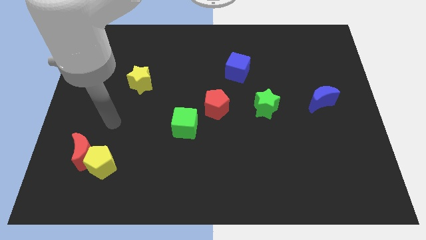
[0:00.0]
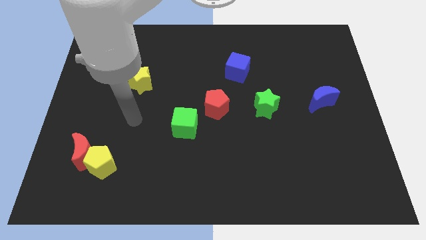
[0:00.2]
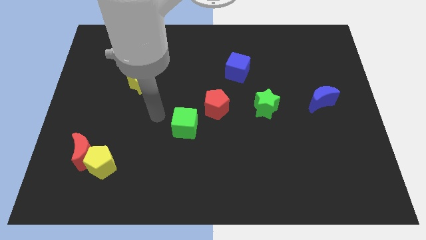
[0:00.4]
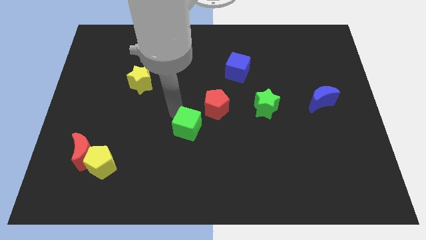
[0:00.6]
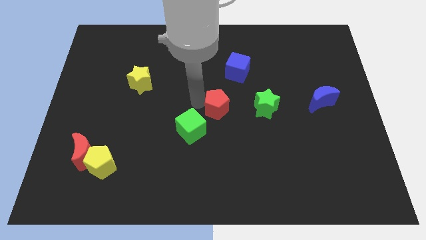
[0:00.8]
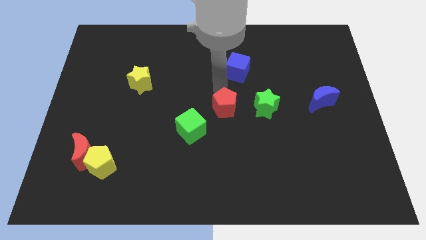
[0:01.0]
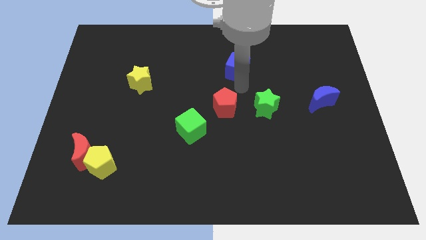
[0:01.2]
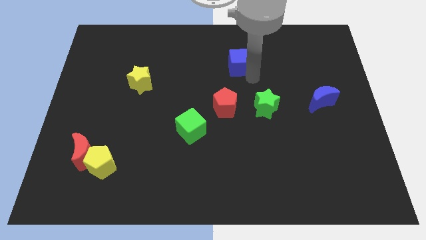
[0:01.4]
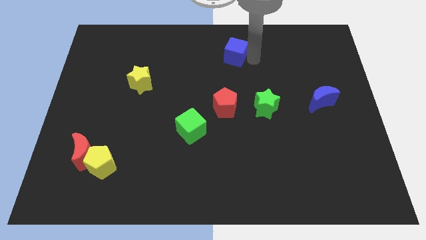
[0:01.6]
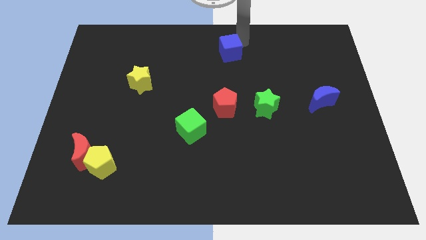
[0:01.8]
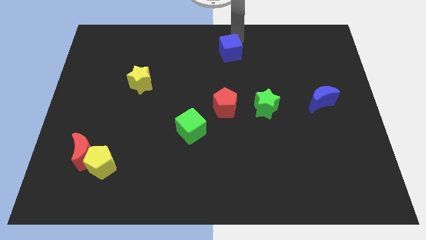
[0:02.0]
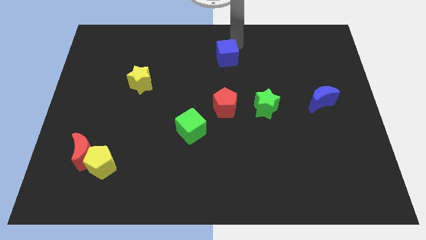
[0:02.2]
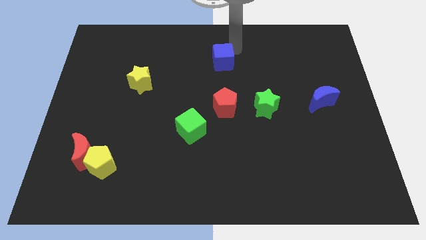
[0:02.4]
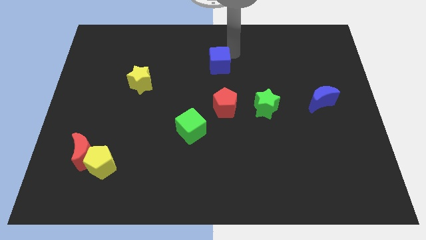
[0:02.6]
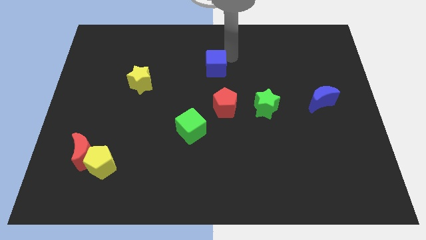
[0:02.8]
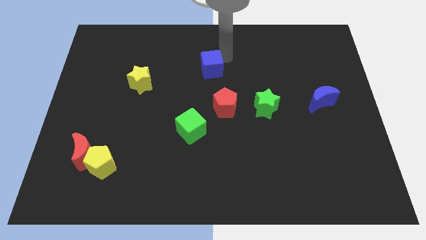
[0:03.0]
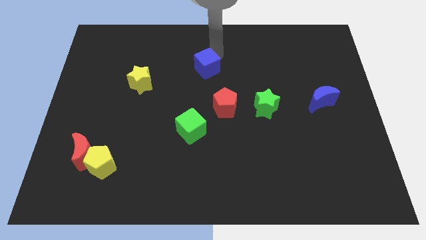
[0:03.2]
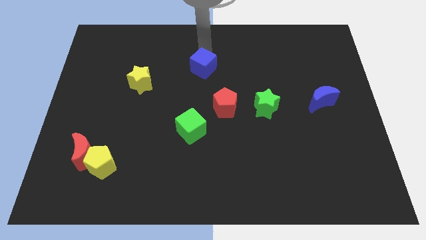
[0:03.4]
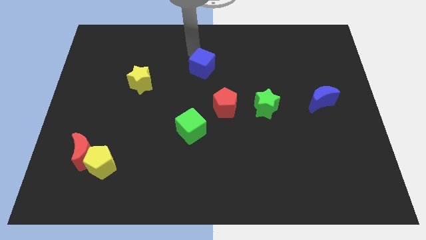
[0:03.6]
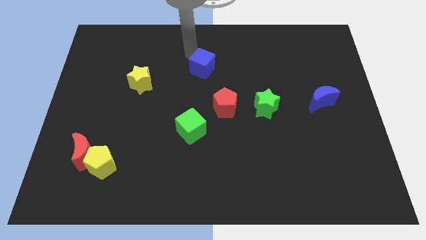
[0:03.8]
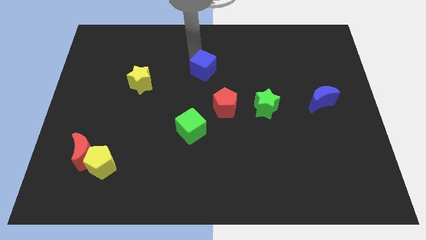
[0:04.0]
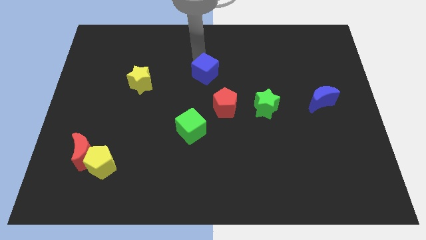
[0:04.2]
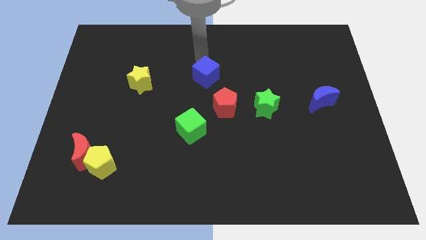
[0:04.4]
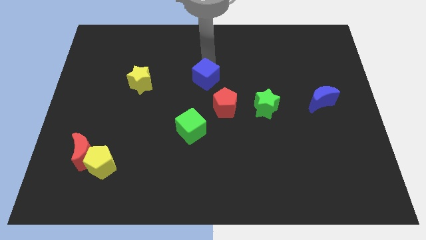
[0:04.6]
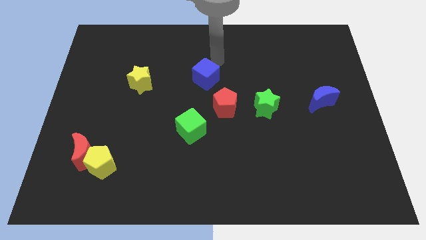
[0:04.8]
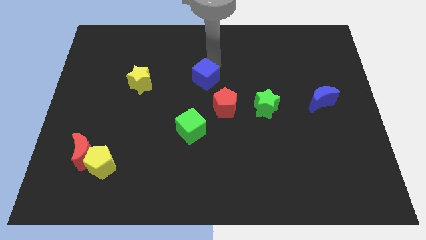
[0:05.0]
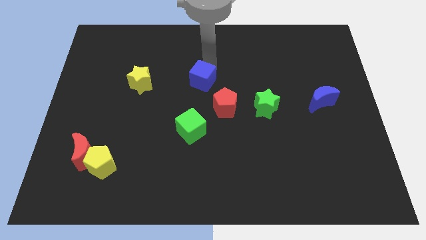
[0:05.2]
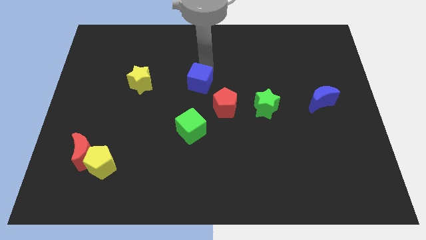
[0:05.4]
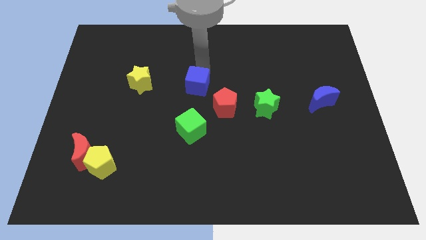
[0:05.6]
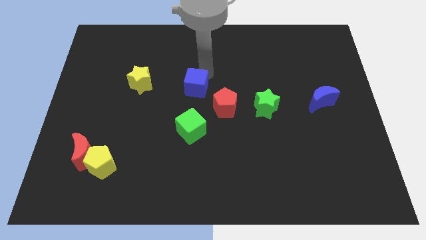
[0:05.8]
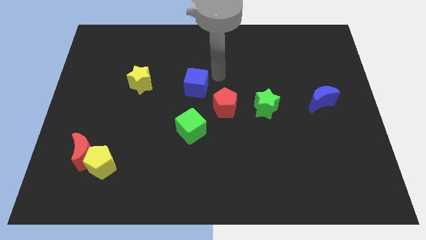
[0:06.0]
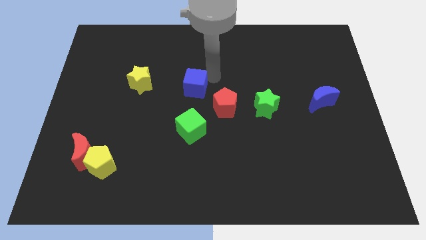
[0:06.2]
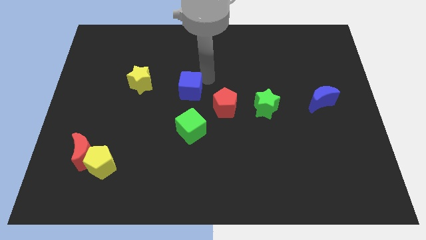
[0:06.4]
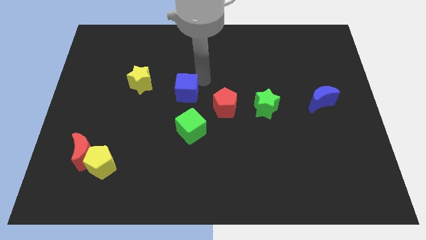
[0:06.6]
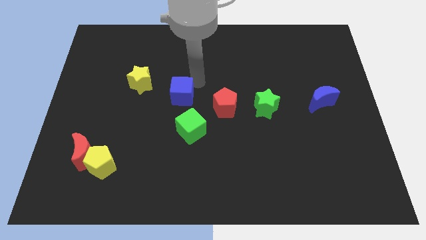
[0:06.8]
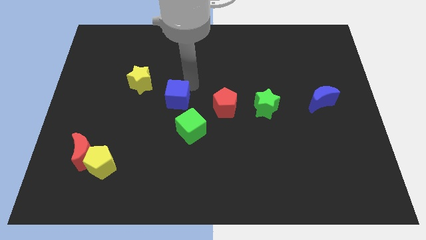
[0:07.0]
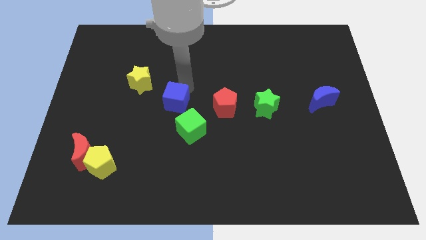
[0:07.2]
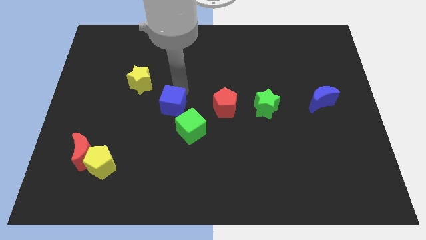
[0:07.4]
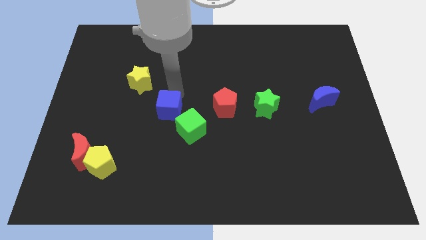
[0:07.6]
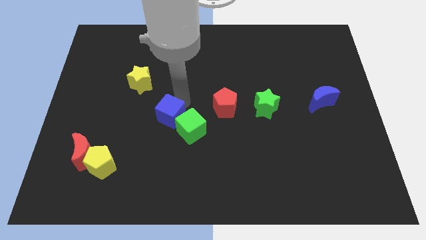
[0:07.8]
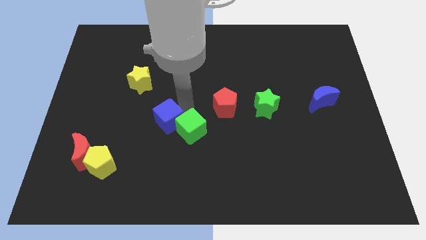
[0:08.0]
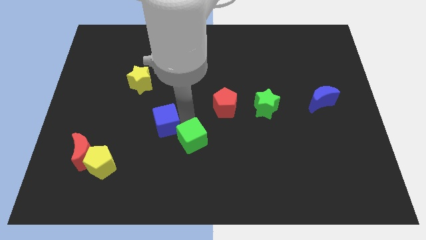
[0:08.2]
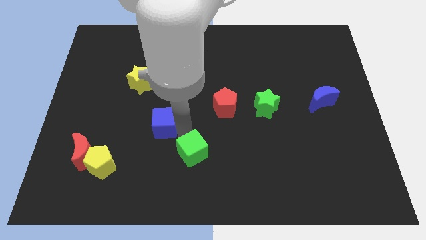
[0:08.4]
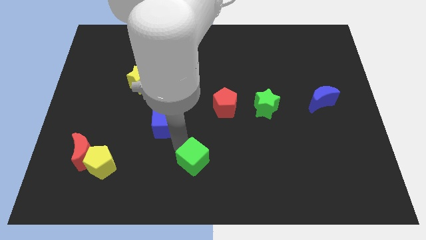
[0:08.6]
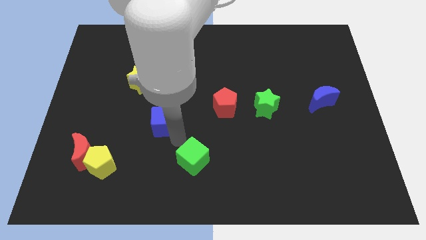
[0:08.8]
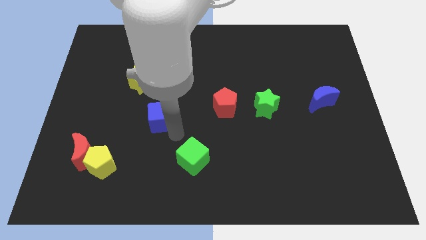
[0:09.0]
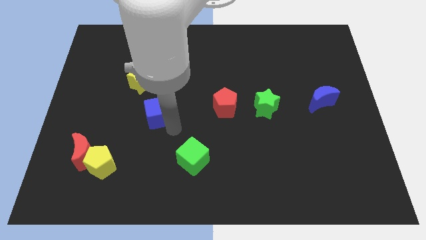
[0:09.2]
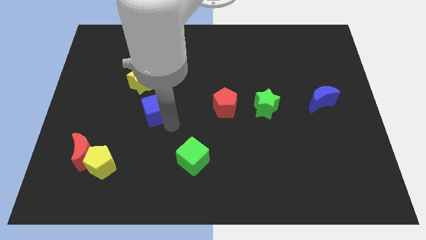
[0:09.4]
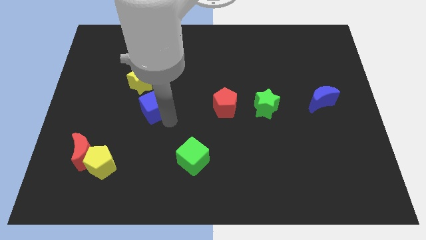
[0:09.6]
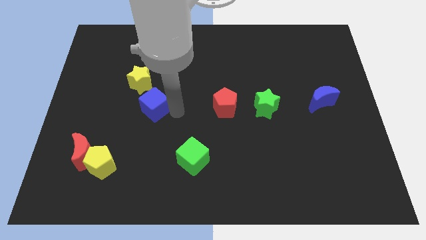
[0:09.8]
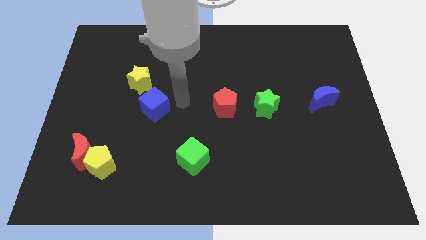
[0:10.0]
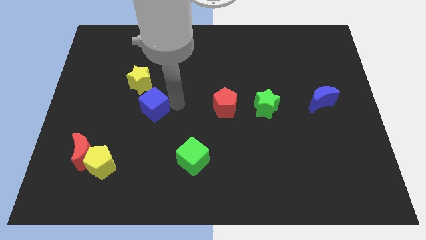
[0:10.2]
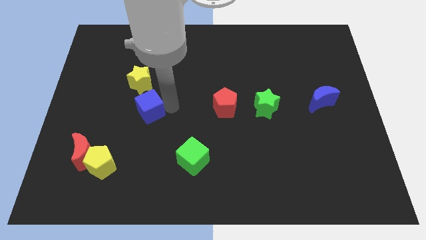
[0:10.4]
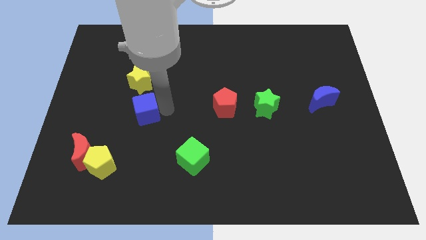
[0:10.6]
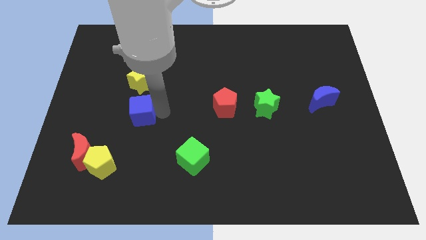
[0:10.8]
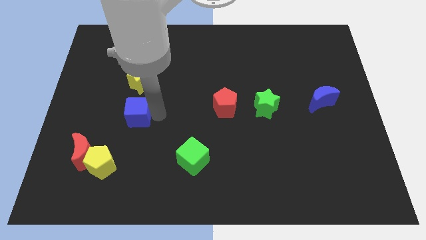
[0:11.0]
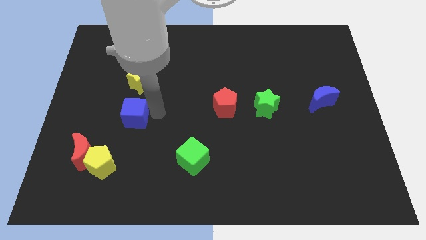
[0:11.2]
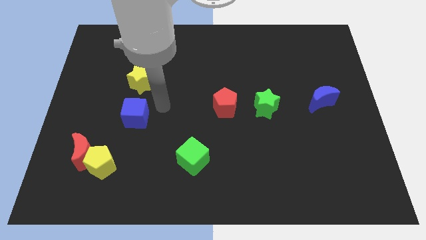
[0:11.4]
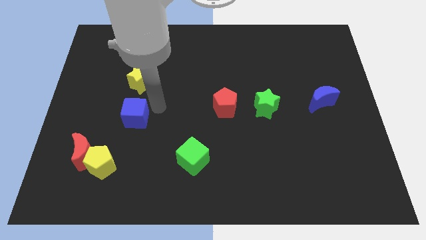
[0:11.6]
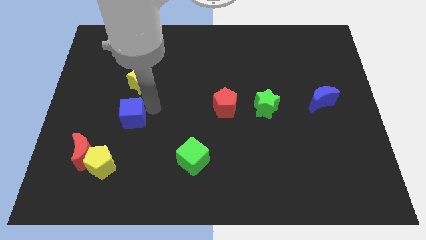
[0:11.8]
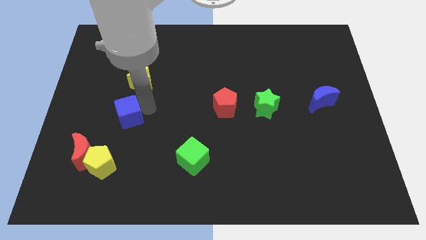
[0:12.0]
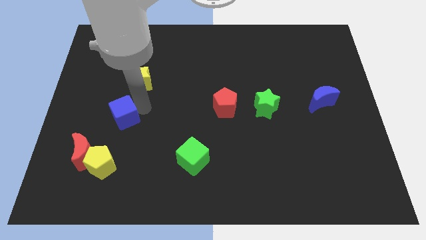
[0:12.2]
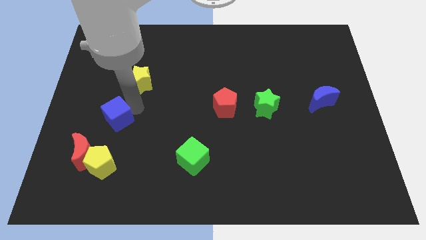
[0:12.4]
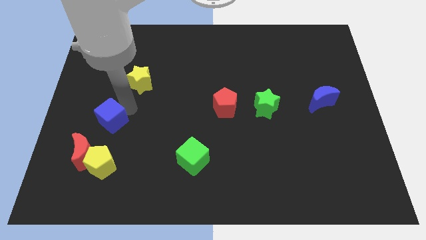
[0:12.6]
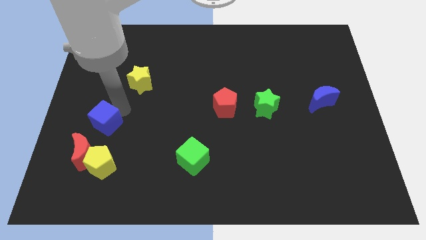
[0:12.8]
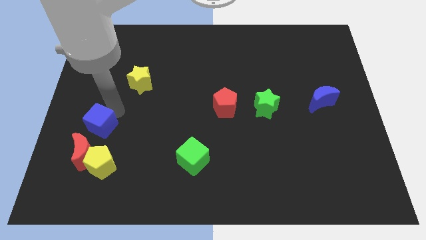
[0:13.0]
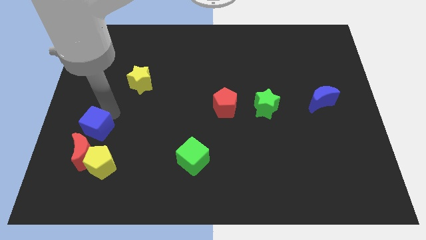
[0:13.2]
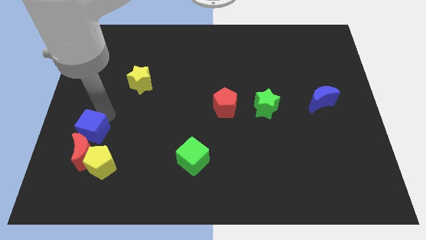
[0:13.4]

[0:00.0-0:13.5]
push the blue cube towards the red moon

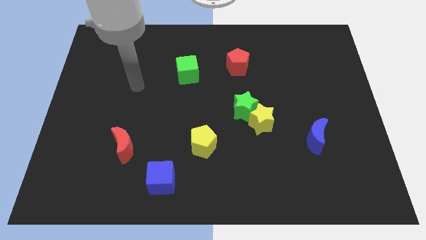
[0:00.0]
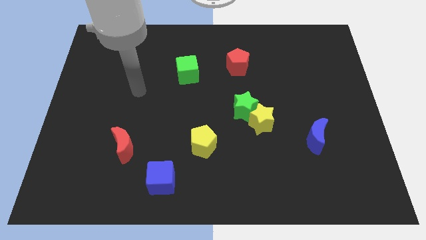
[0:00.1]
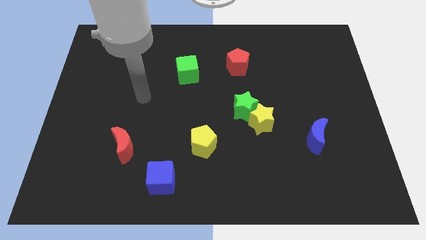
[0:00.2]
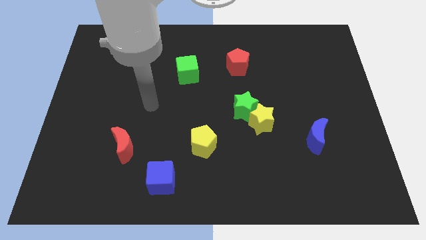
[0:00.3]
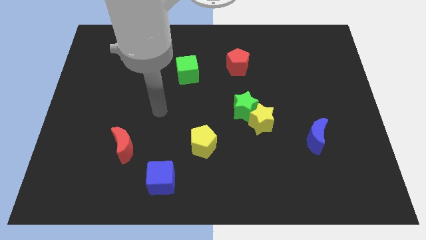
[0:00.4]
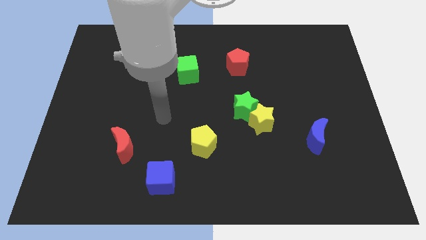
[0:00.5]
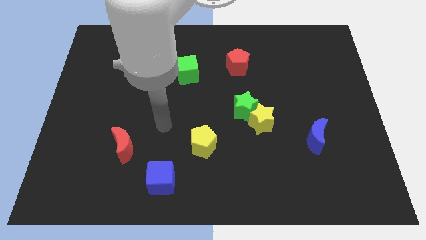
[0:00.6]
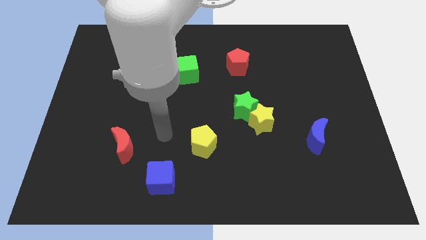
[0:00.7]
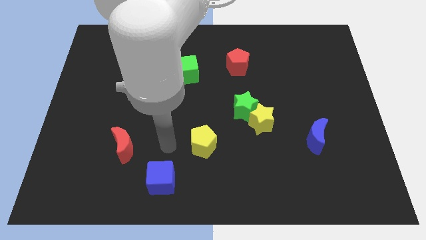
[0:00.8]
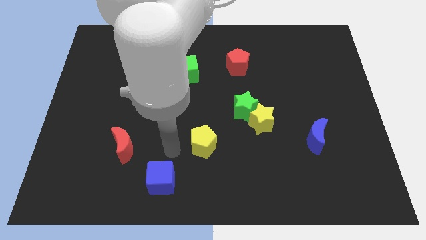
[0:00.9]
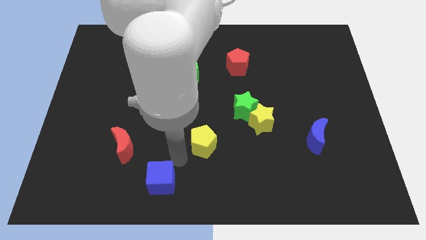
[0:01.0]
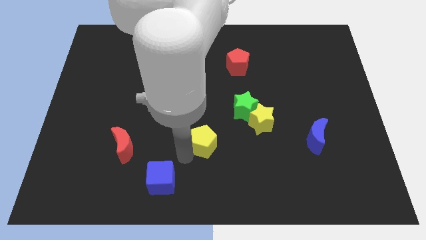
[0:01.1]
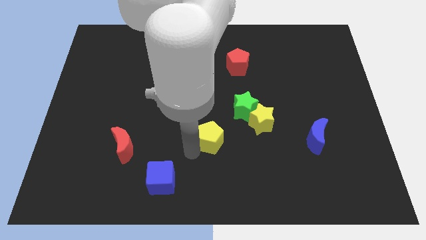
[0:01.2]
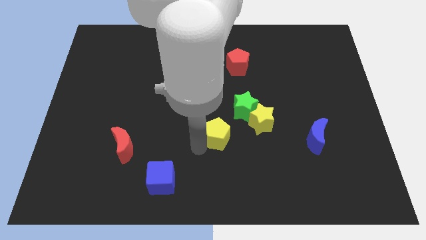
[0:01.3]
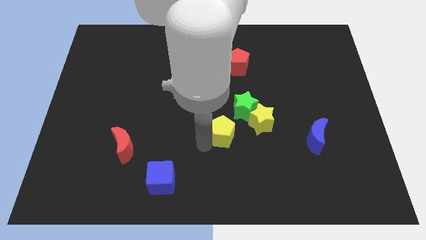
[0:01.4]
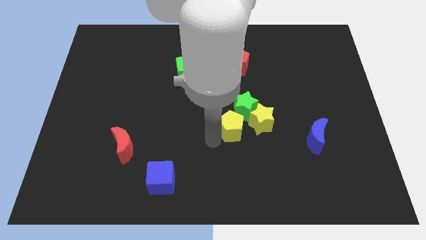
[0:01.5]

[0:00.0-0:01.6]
push the yellow pentagon to the green star
